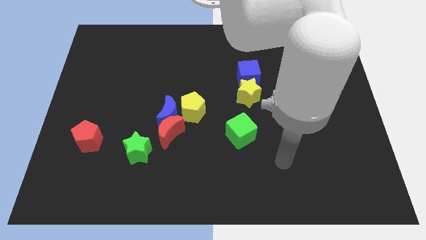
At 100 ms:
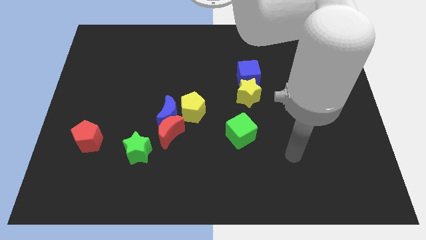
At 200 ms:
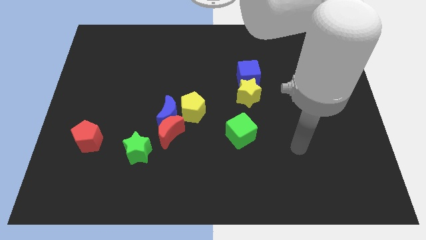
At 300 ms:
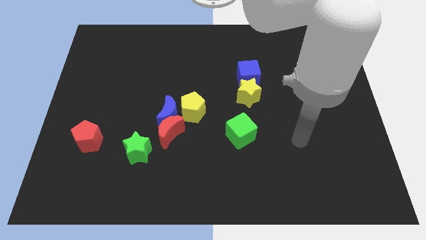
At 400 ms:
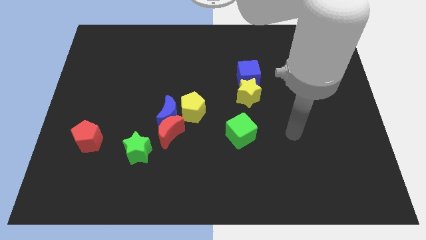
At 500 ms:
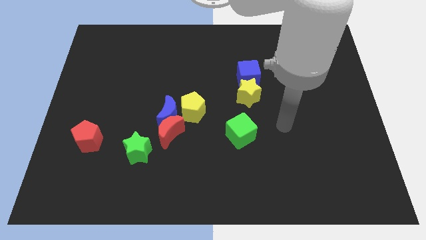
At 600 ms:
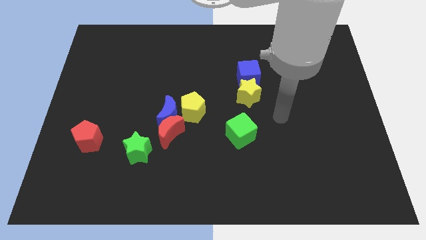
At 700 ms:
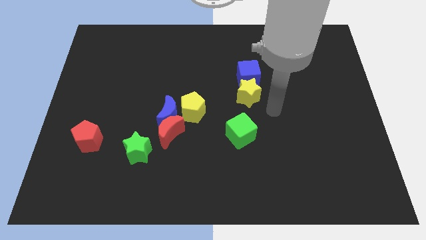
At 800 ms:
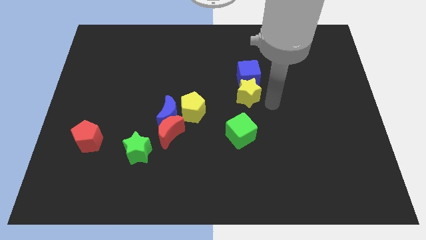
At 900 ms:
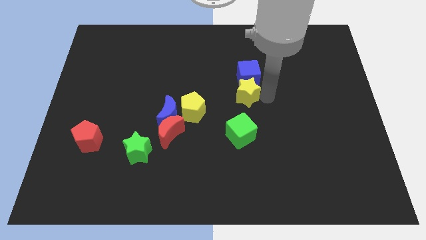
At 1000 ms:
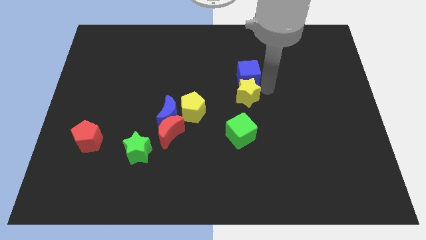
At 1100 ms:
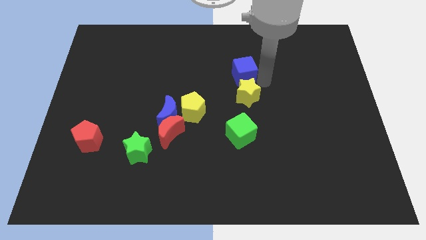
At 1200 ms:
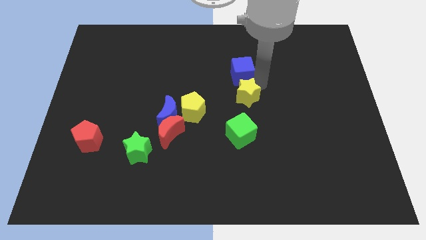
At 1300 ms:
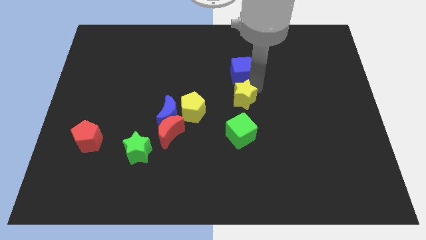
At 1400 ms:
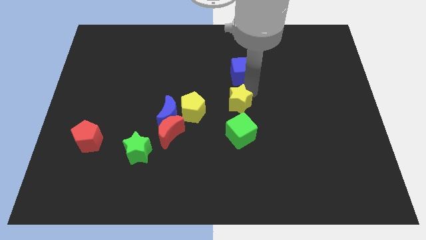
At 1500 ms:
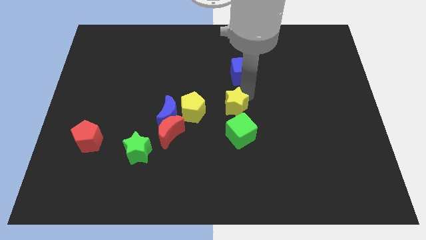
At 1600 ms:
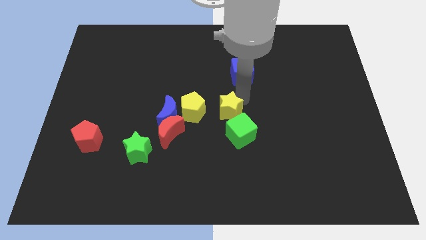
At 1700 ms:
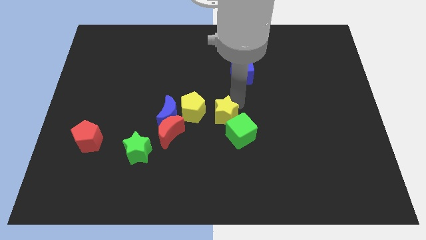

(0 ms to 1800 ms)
move the yellow star a bit downwards and left diagonally

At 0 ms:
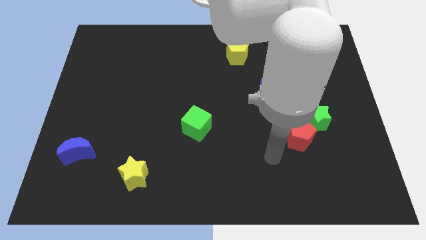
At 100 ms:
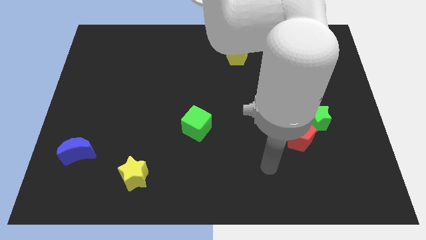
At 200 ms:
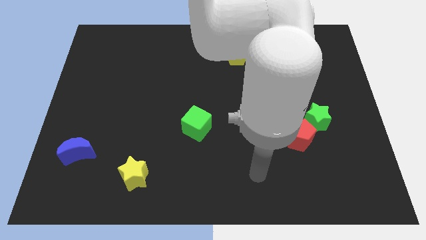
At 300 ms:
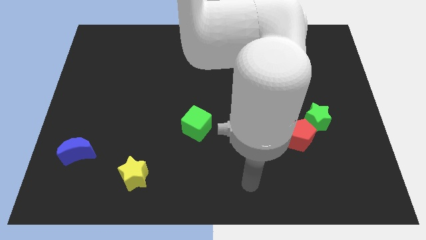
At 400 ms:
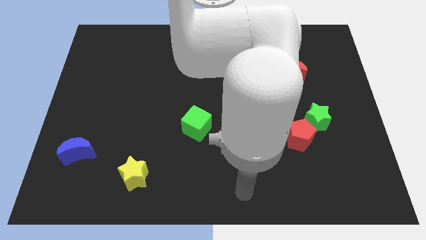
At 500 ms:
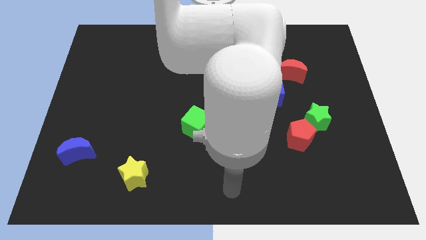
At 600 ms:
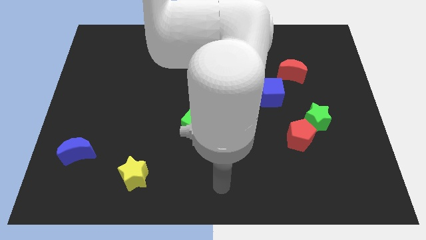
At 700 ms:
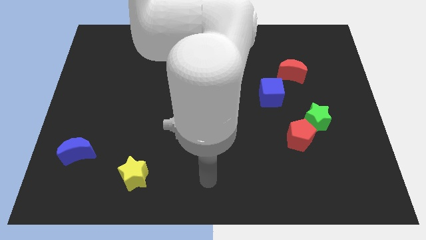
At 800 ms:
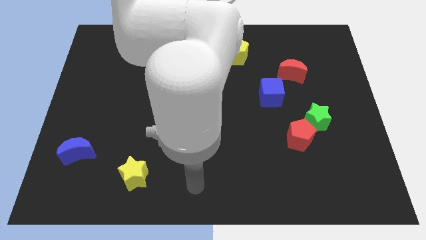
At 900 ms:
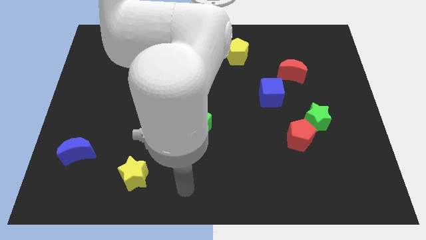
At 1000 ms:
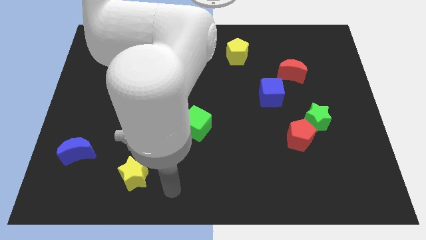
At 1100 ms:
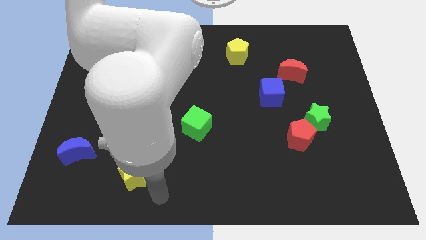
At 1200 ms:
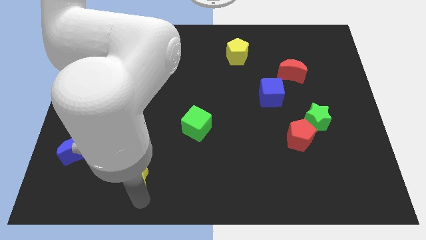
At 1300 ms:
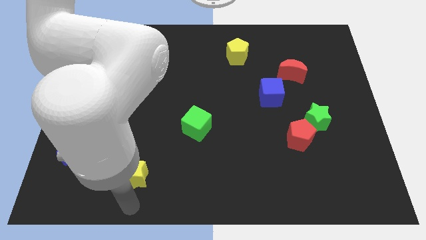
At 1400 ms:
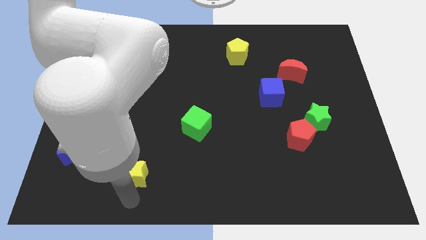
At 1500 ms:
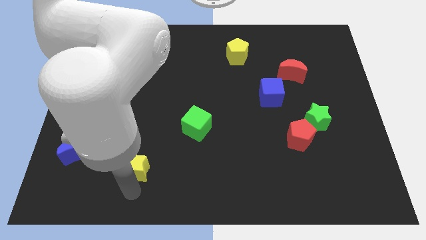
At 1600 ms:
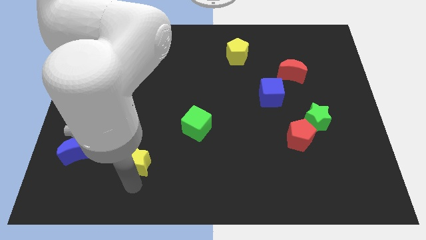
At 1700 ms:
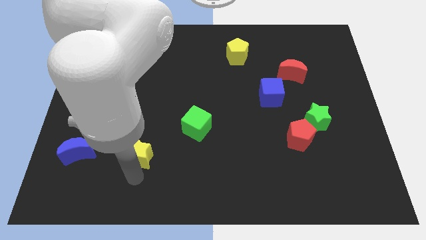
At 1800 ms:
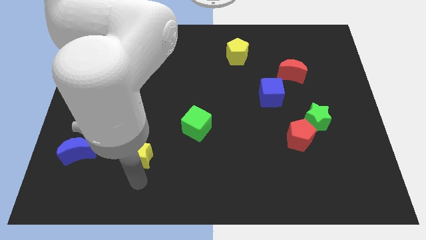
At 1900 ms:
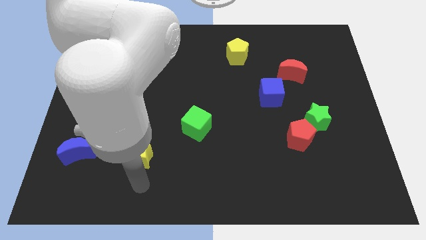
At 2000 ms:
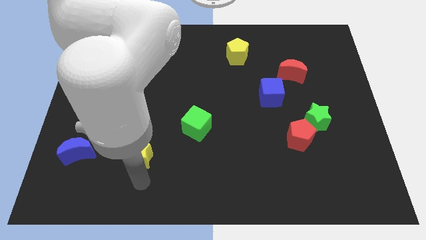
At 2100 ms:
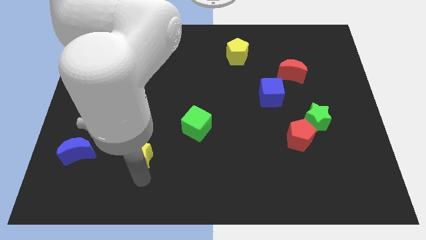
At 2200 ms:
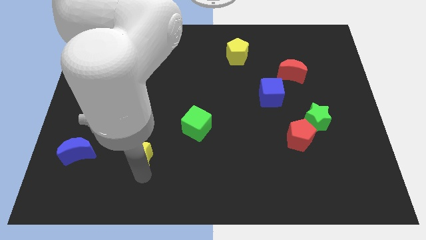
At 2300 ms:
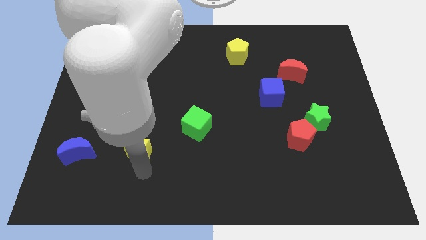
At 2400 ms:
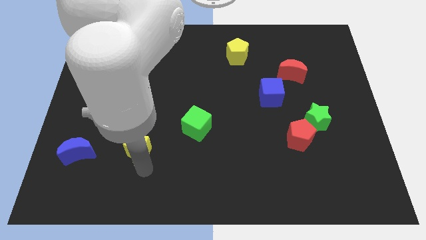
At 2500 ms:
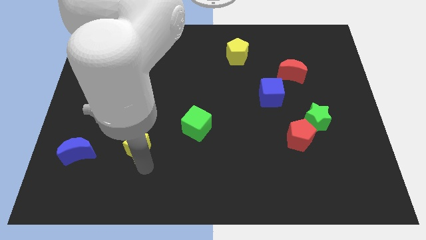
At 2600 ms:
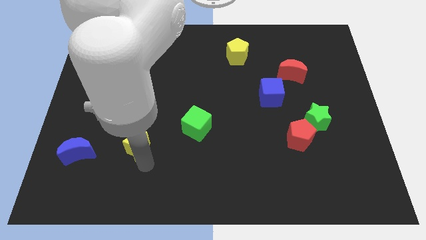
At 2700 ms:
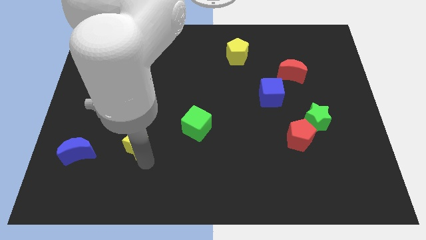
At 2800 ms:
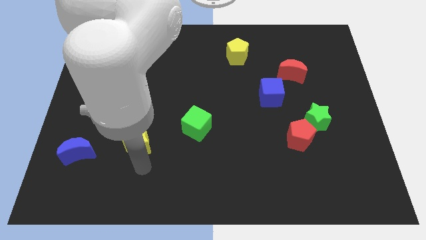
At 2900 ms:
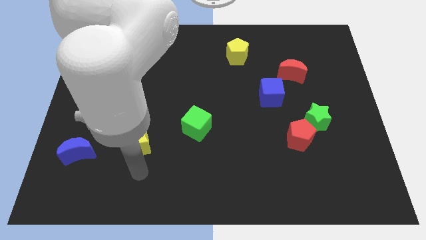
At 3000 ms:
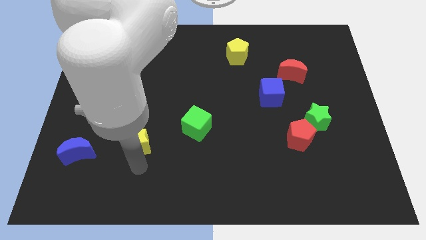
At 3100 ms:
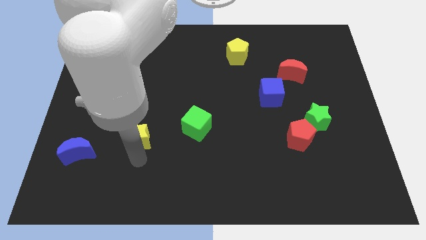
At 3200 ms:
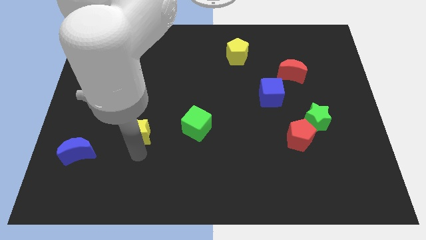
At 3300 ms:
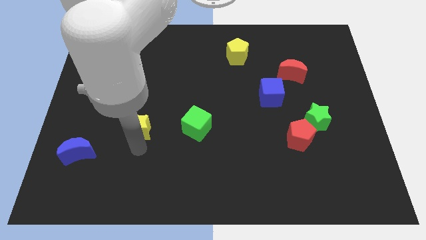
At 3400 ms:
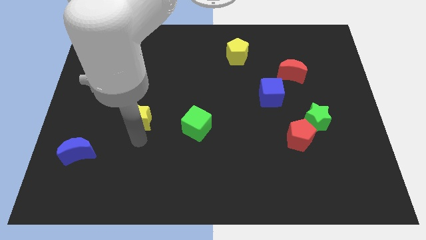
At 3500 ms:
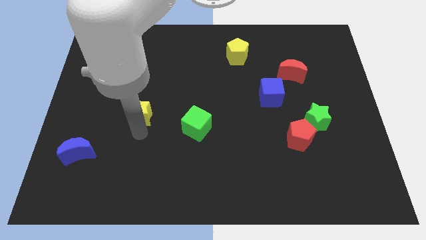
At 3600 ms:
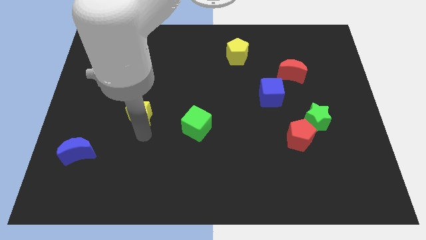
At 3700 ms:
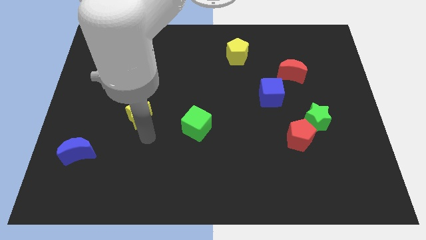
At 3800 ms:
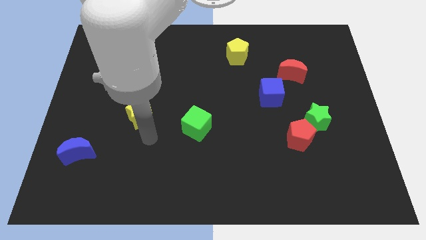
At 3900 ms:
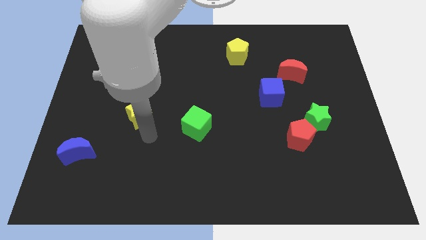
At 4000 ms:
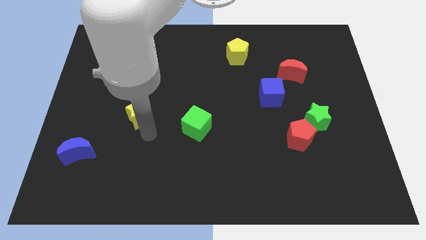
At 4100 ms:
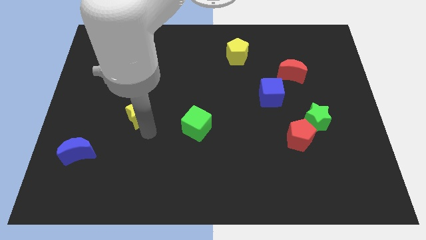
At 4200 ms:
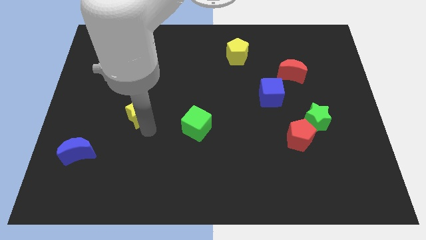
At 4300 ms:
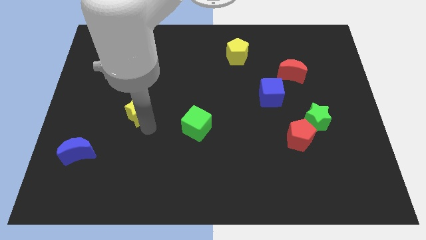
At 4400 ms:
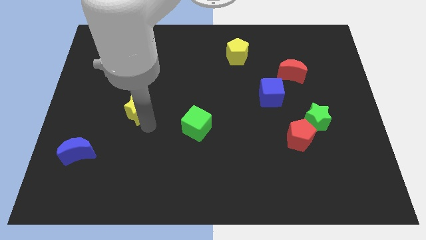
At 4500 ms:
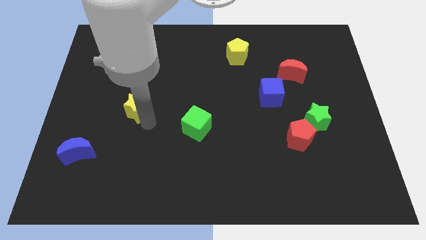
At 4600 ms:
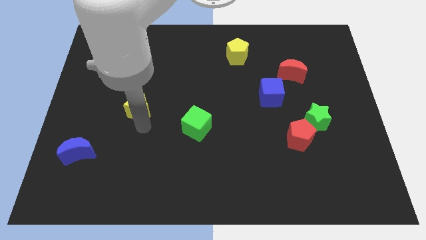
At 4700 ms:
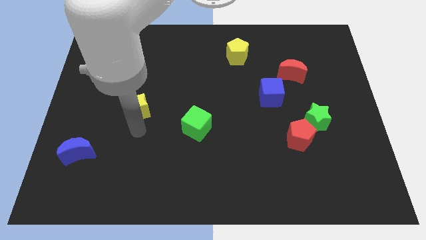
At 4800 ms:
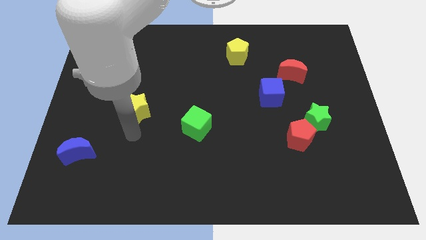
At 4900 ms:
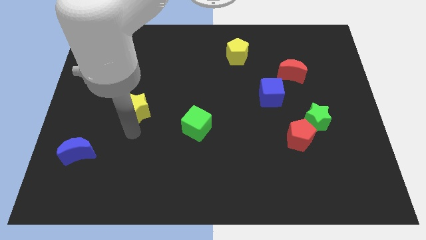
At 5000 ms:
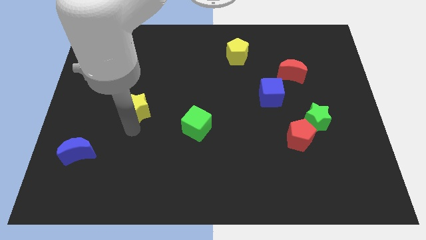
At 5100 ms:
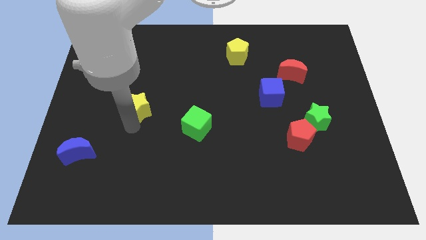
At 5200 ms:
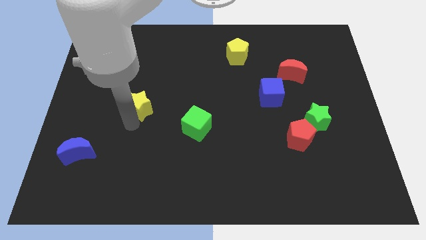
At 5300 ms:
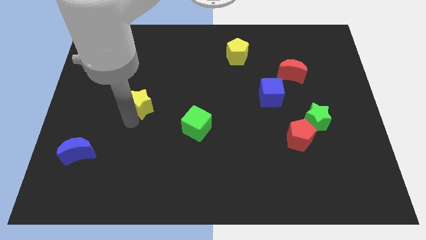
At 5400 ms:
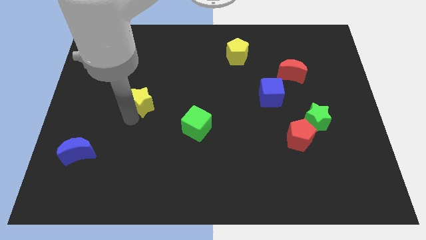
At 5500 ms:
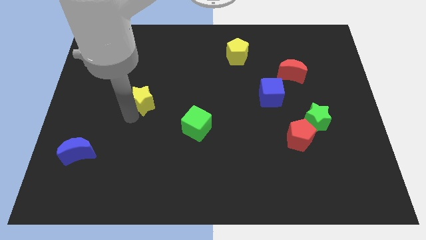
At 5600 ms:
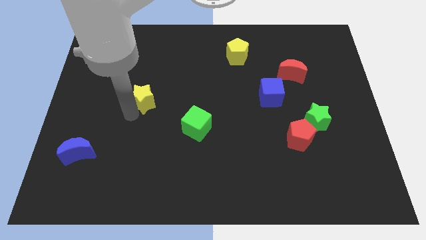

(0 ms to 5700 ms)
move the yellow star up

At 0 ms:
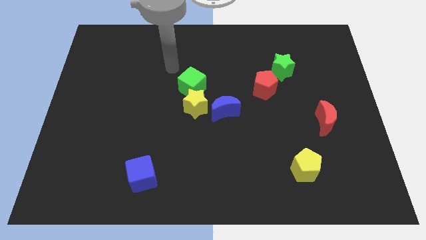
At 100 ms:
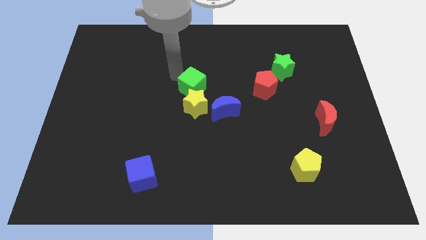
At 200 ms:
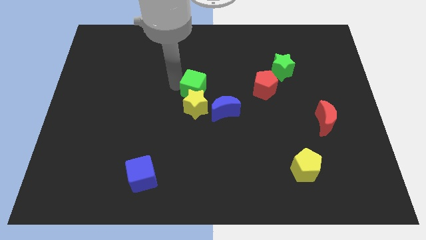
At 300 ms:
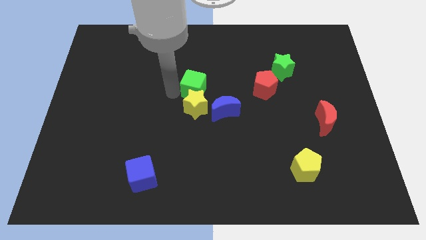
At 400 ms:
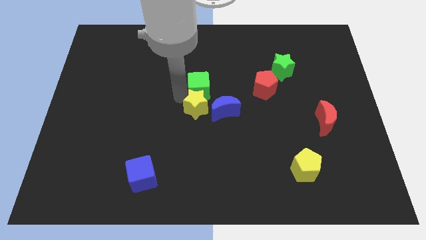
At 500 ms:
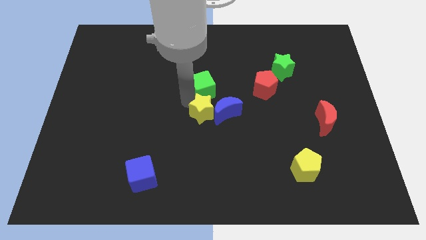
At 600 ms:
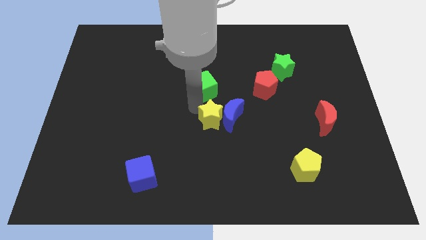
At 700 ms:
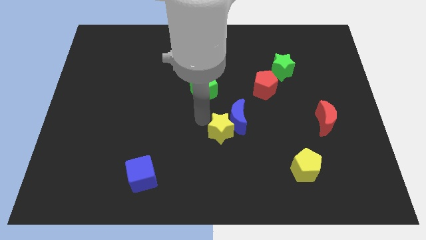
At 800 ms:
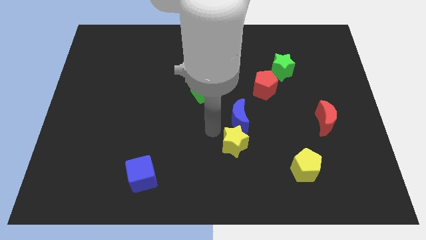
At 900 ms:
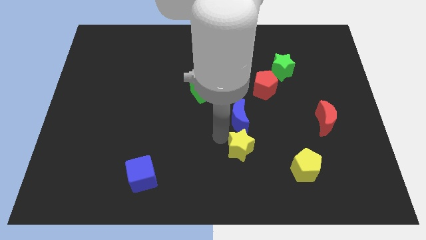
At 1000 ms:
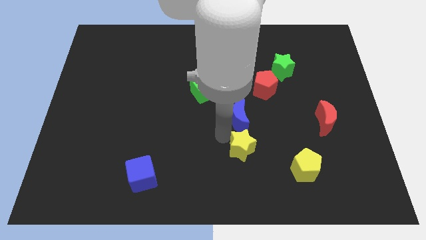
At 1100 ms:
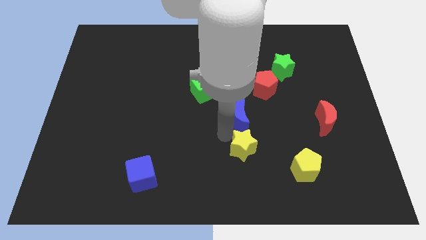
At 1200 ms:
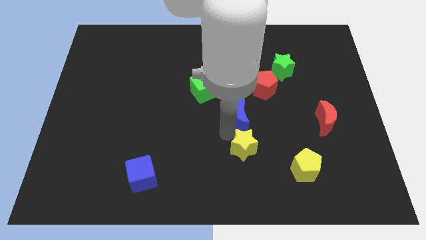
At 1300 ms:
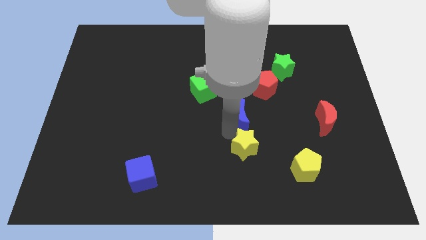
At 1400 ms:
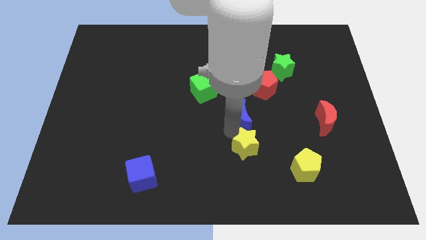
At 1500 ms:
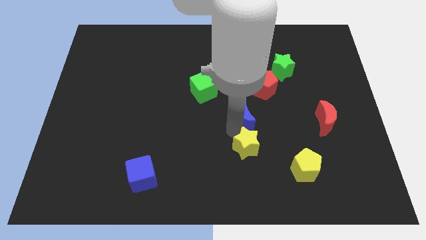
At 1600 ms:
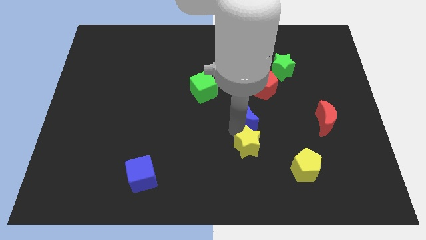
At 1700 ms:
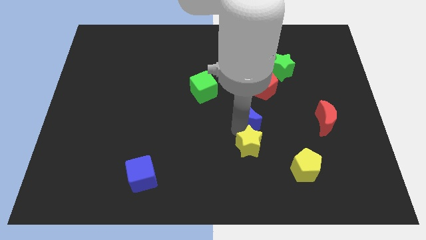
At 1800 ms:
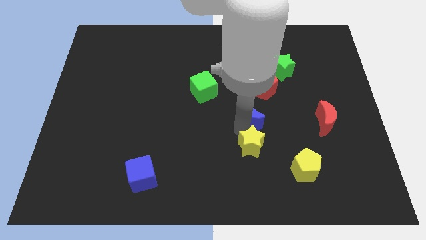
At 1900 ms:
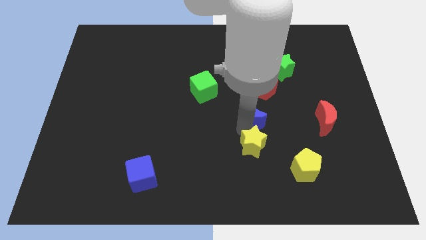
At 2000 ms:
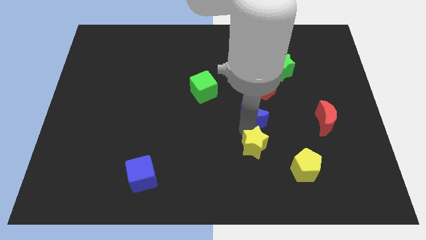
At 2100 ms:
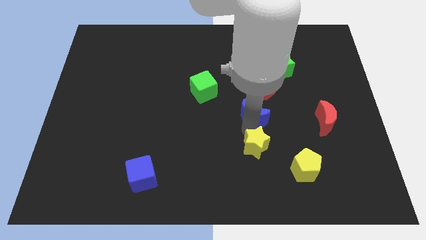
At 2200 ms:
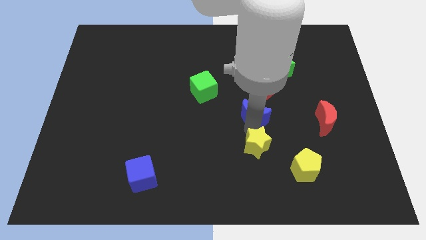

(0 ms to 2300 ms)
push the blue moon a bit right
